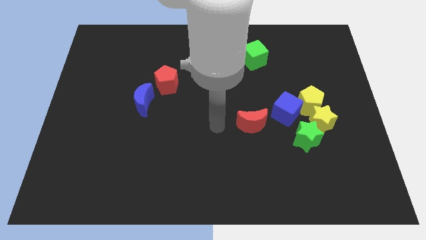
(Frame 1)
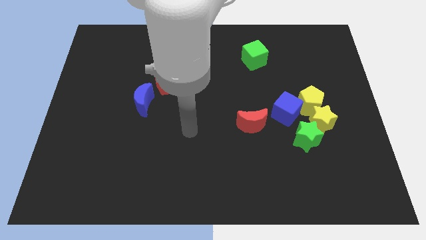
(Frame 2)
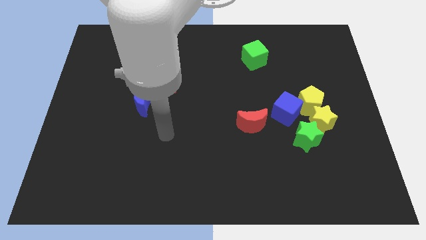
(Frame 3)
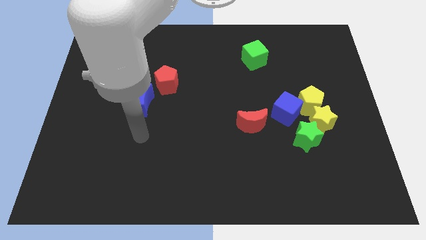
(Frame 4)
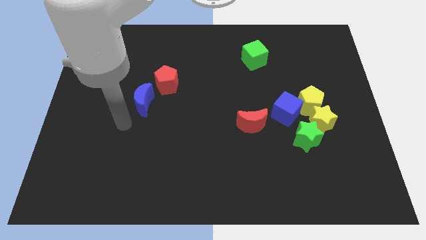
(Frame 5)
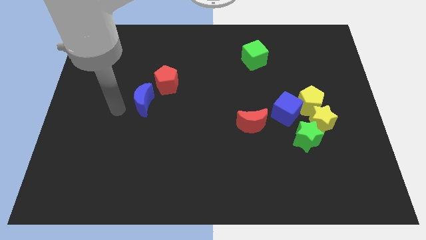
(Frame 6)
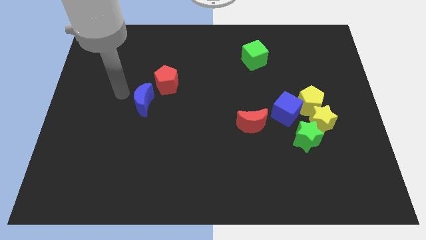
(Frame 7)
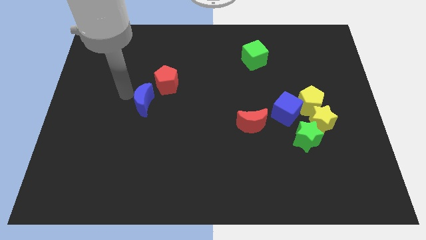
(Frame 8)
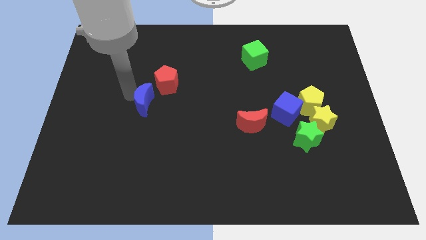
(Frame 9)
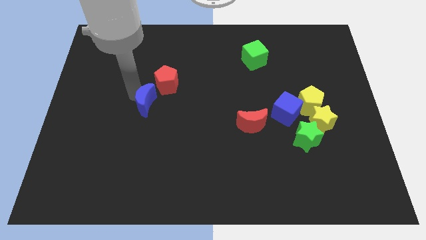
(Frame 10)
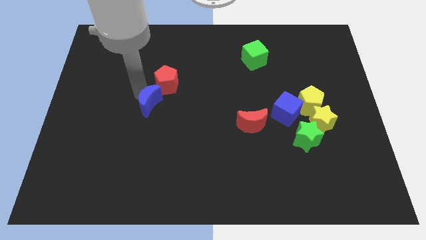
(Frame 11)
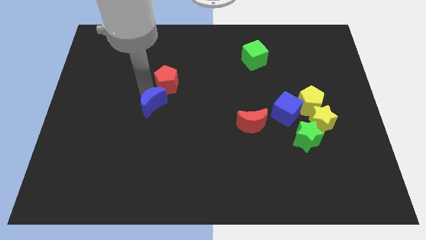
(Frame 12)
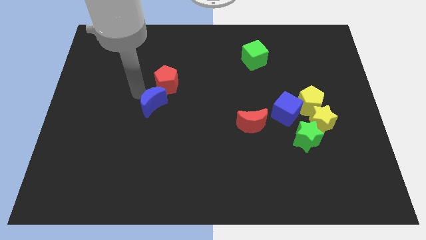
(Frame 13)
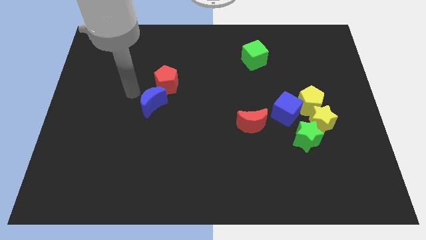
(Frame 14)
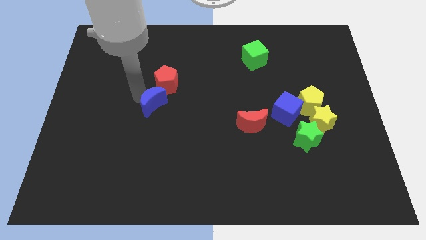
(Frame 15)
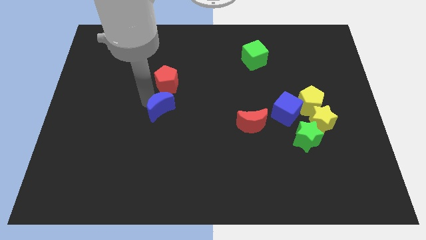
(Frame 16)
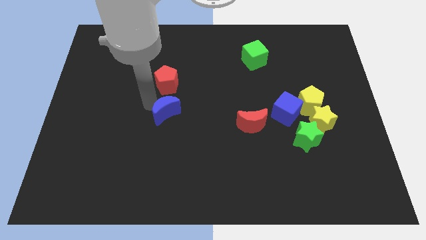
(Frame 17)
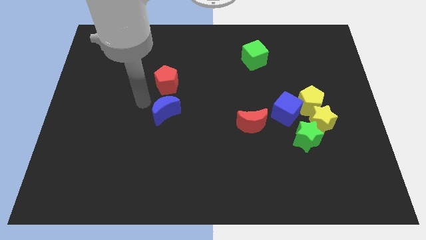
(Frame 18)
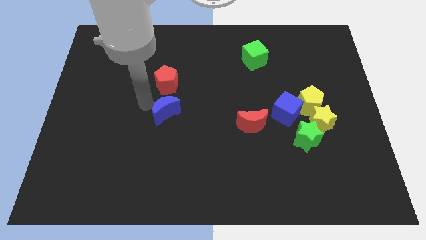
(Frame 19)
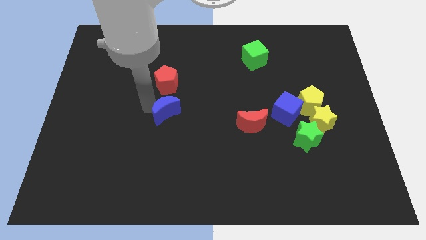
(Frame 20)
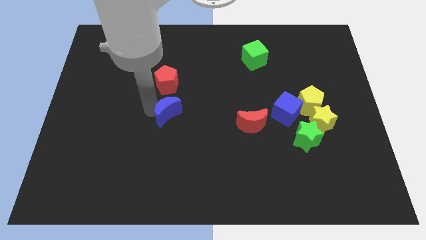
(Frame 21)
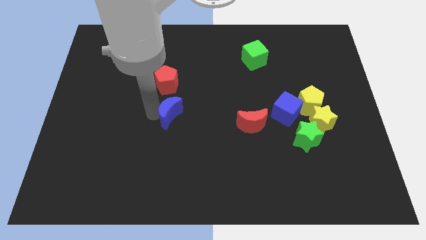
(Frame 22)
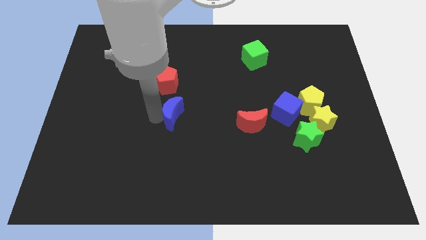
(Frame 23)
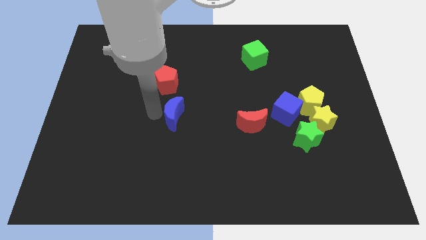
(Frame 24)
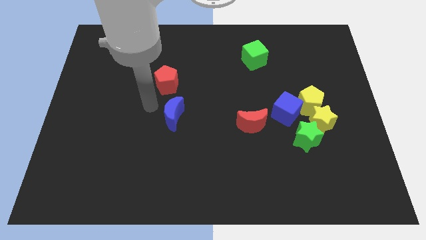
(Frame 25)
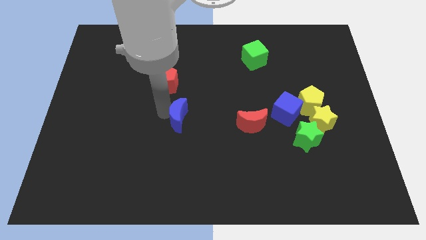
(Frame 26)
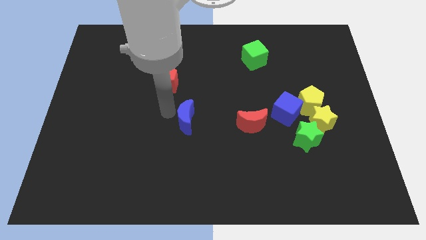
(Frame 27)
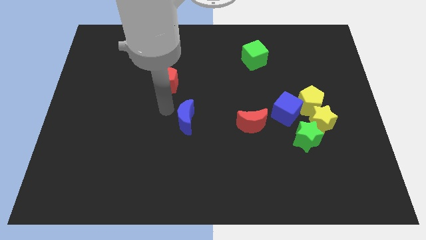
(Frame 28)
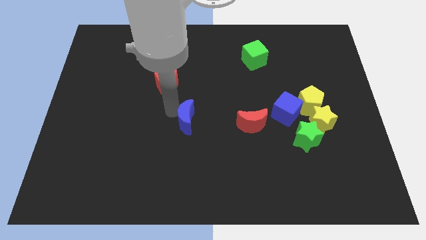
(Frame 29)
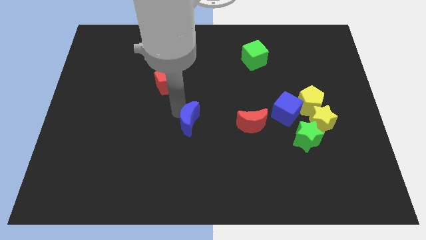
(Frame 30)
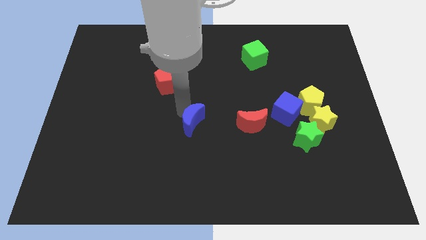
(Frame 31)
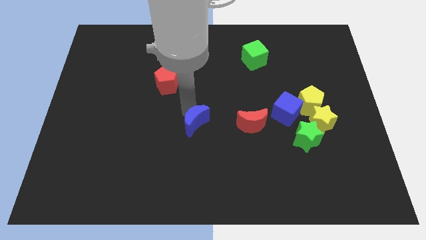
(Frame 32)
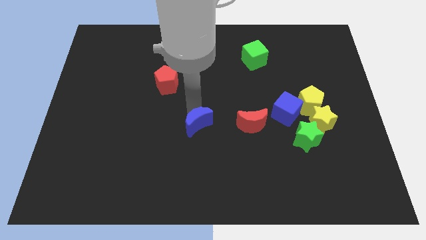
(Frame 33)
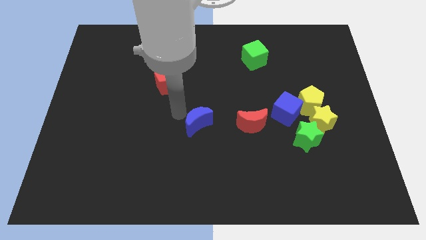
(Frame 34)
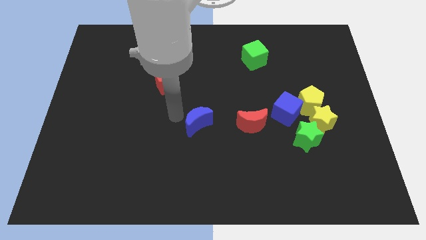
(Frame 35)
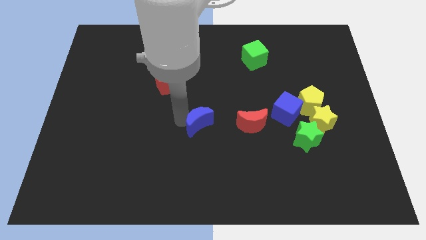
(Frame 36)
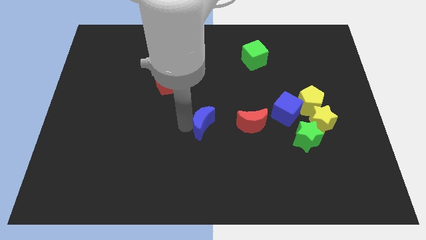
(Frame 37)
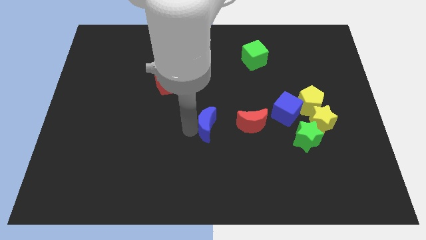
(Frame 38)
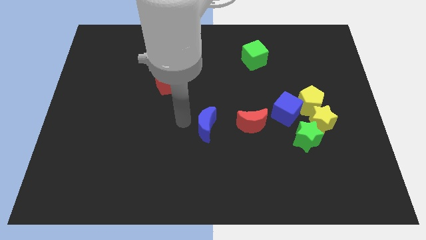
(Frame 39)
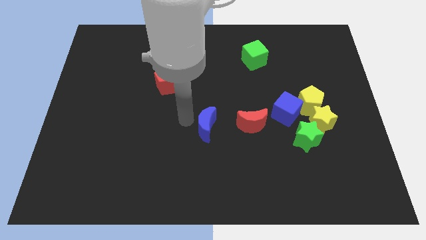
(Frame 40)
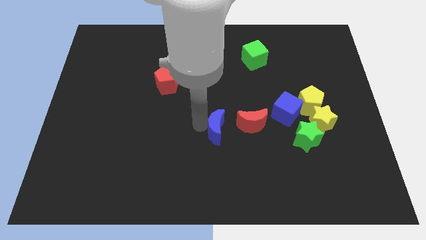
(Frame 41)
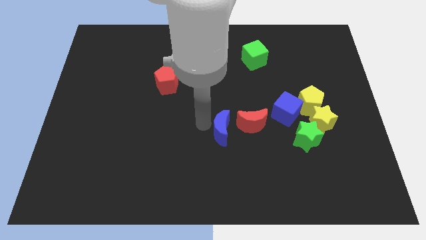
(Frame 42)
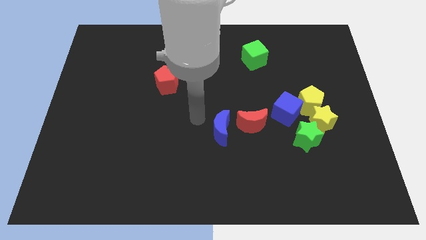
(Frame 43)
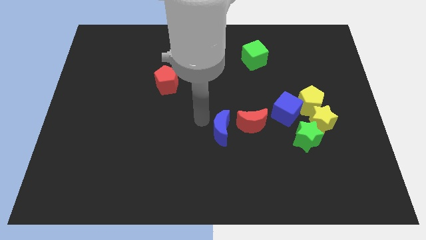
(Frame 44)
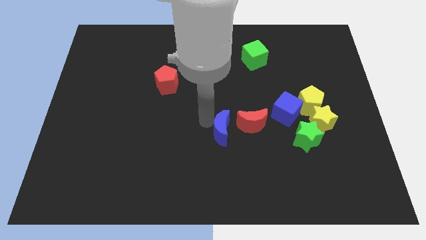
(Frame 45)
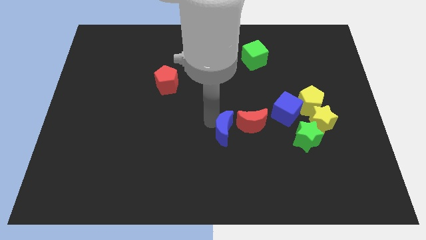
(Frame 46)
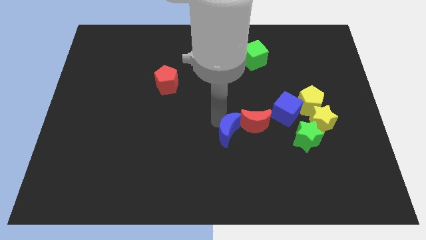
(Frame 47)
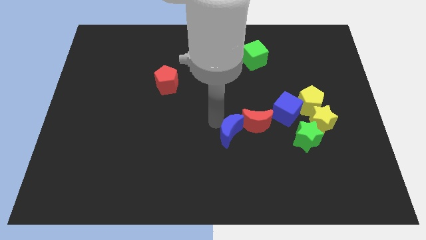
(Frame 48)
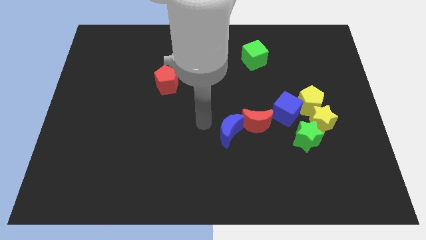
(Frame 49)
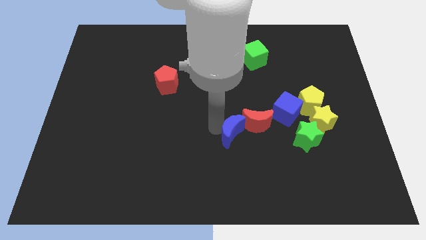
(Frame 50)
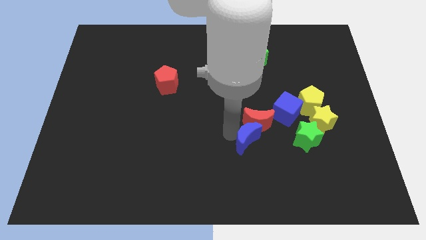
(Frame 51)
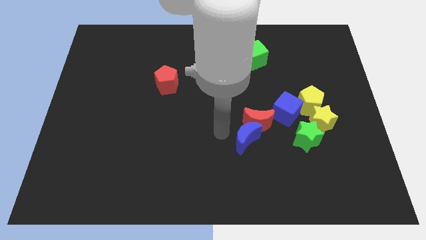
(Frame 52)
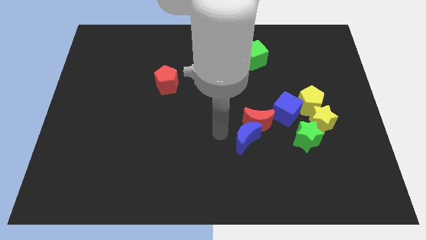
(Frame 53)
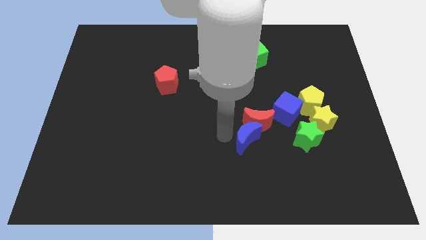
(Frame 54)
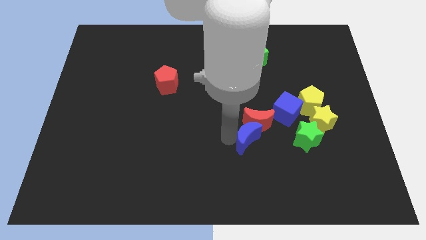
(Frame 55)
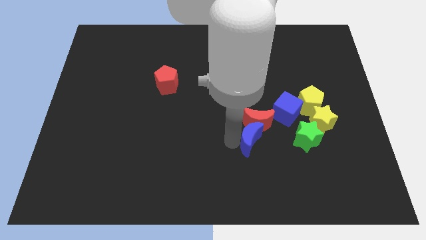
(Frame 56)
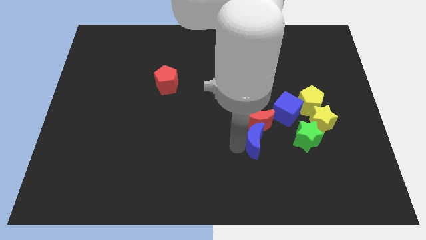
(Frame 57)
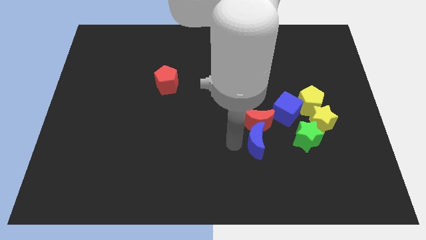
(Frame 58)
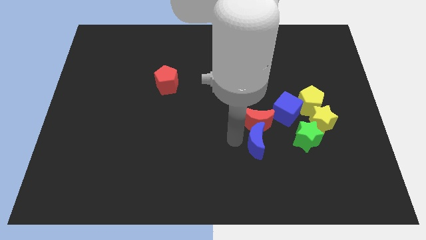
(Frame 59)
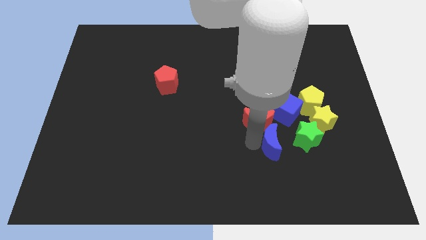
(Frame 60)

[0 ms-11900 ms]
slide the blue moon to the bottom of the blue cube

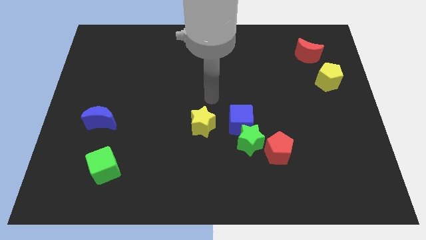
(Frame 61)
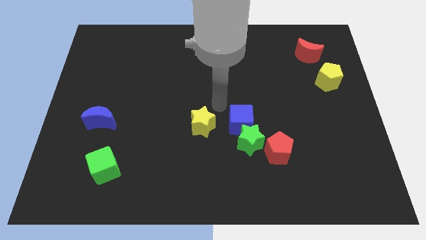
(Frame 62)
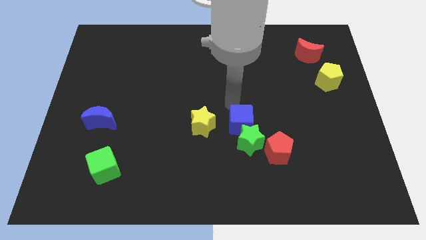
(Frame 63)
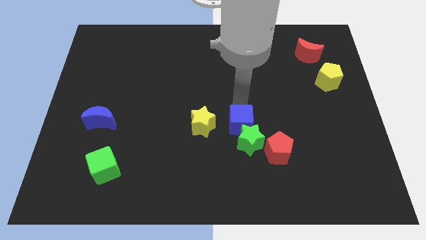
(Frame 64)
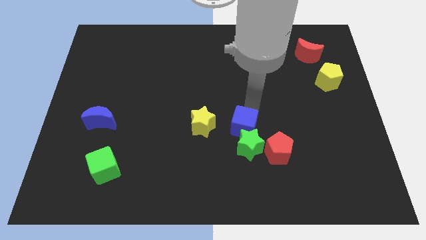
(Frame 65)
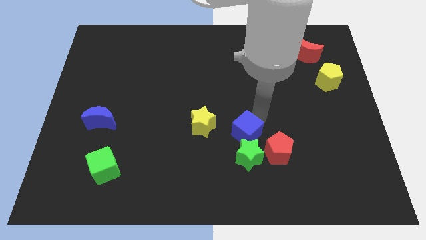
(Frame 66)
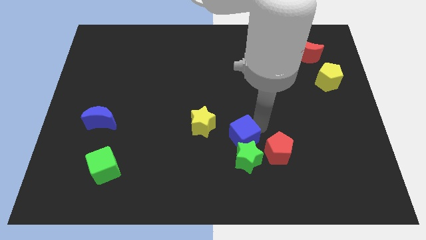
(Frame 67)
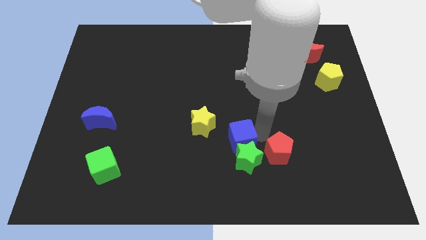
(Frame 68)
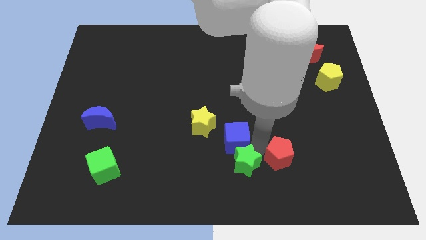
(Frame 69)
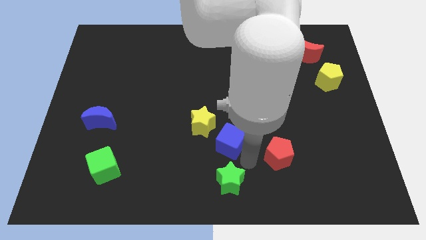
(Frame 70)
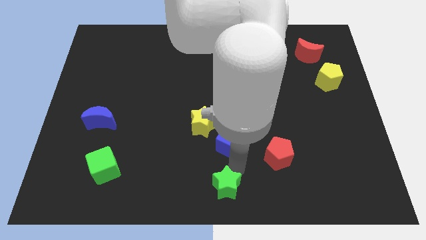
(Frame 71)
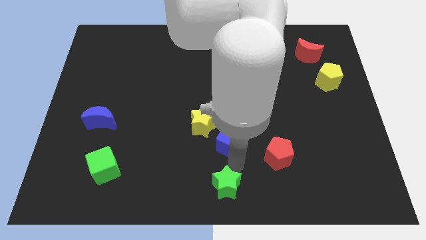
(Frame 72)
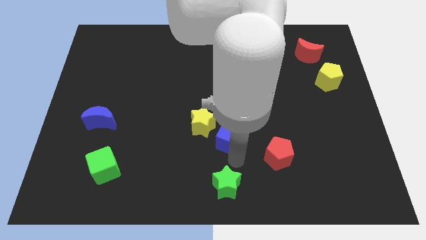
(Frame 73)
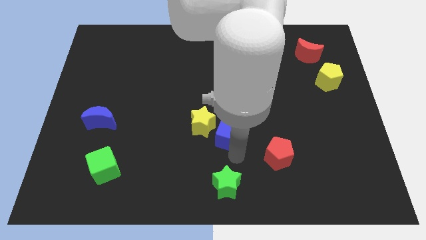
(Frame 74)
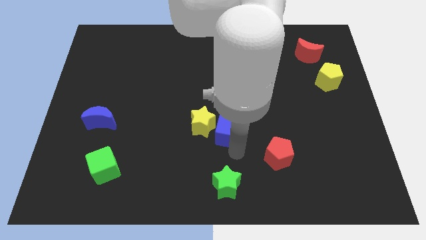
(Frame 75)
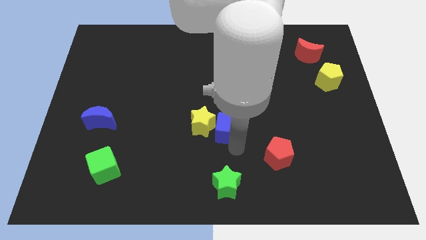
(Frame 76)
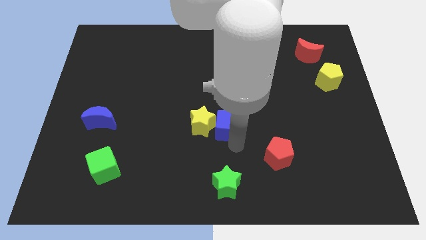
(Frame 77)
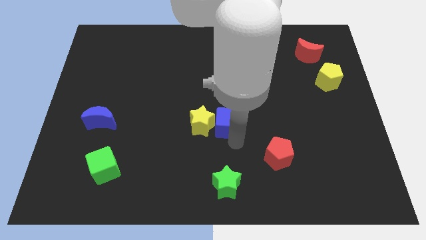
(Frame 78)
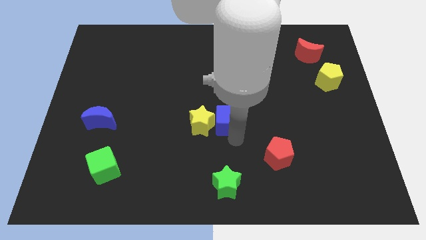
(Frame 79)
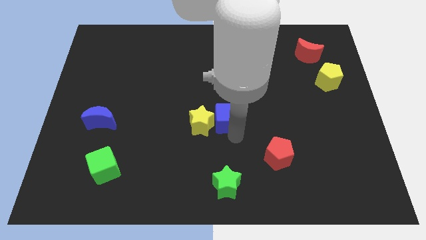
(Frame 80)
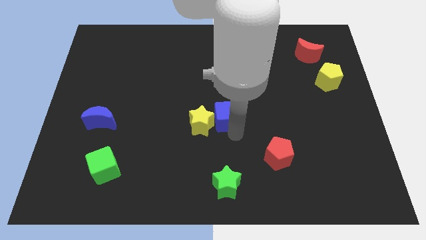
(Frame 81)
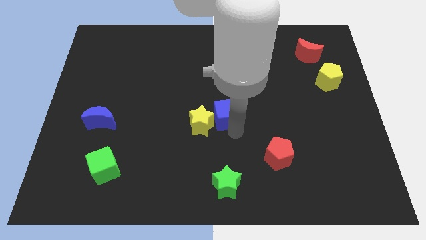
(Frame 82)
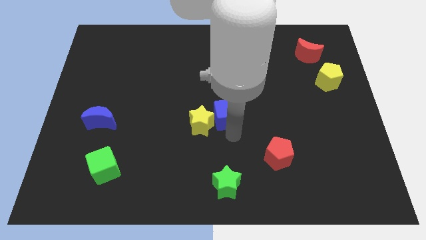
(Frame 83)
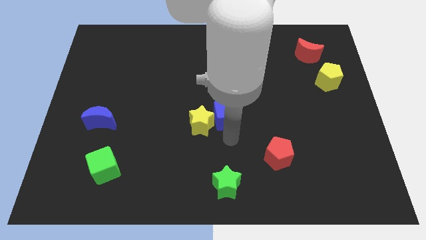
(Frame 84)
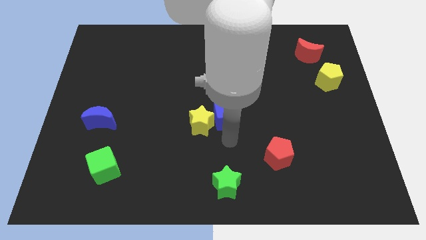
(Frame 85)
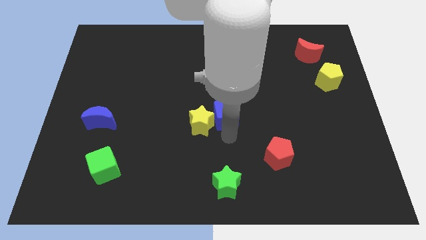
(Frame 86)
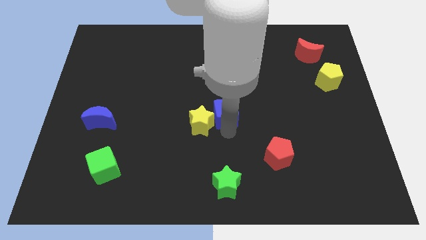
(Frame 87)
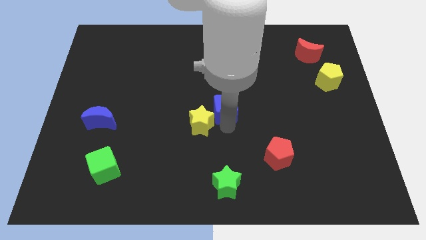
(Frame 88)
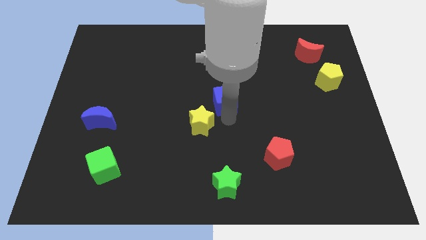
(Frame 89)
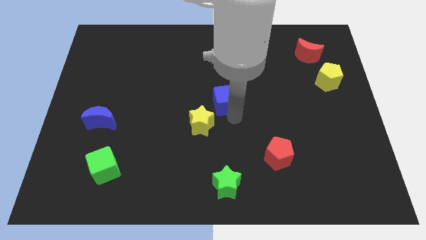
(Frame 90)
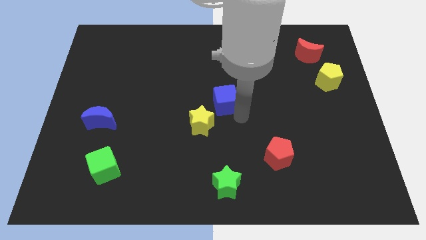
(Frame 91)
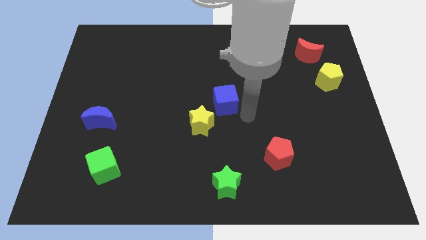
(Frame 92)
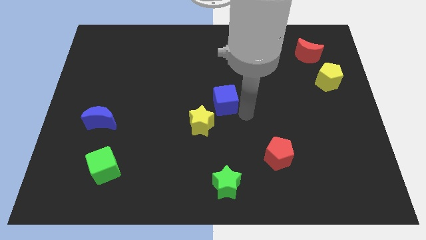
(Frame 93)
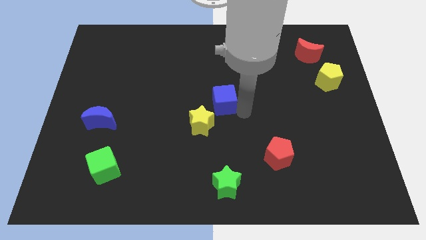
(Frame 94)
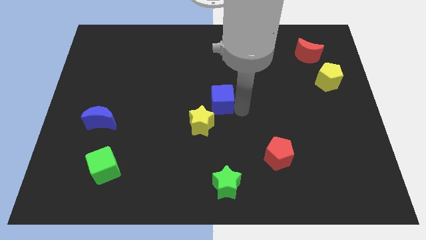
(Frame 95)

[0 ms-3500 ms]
move the blue cube above the yellow star
